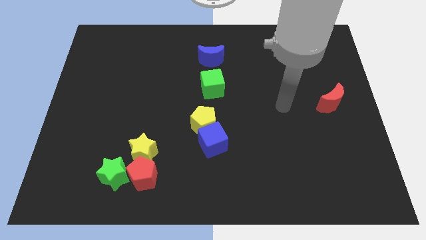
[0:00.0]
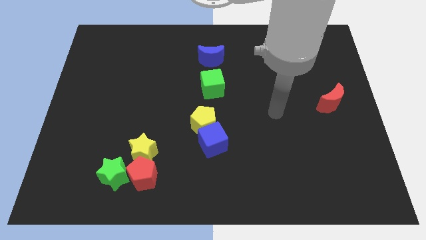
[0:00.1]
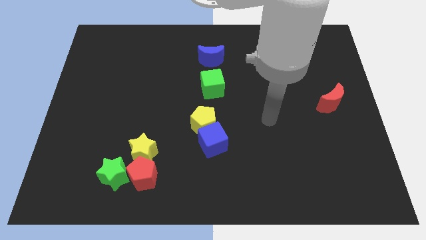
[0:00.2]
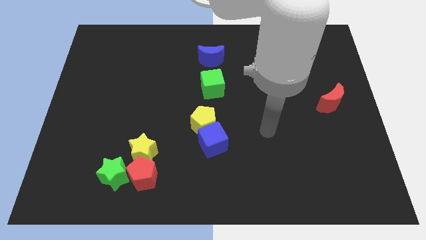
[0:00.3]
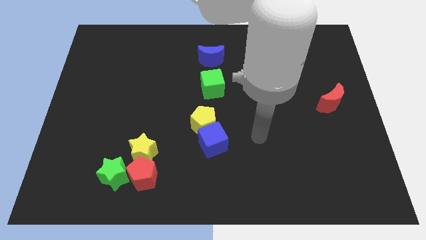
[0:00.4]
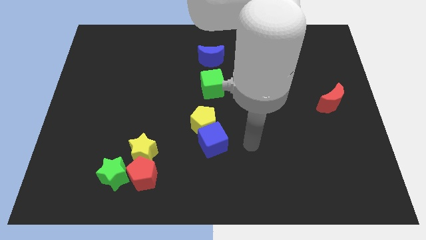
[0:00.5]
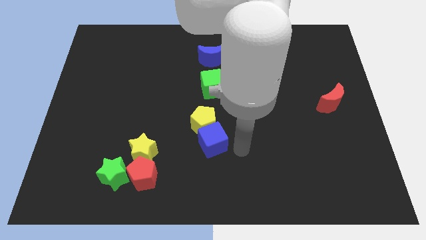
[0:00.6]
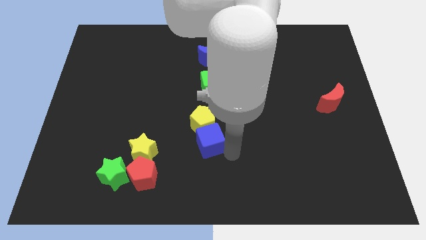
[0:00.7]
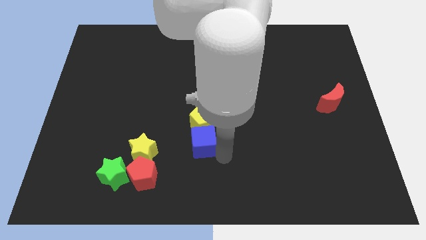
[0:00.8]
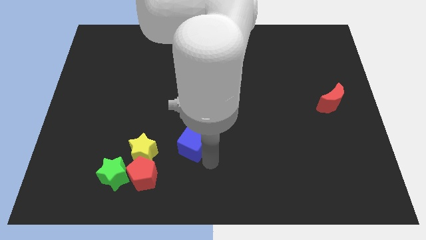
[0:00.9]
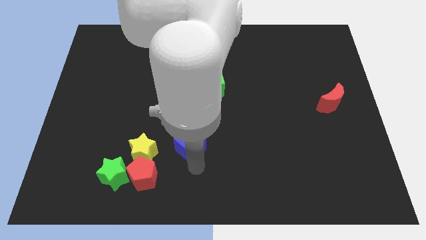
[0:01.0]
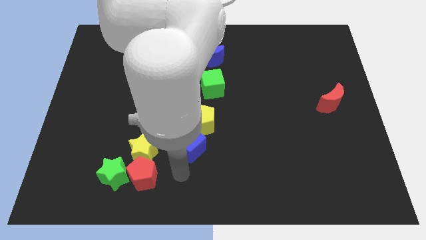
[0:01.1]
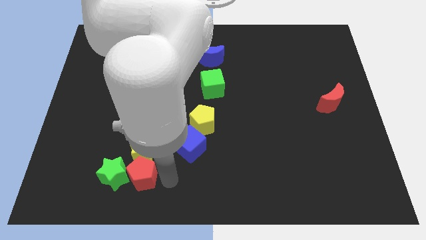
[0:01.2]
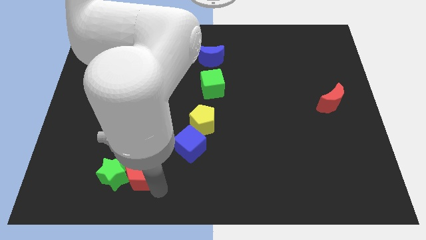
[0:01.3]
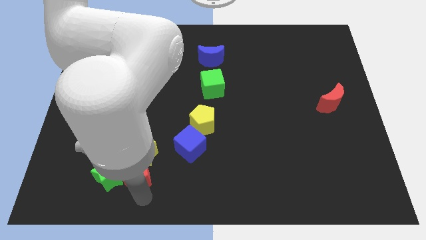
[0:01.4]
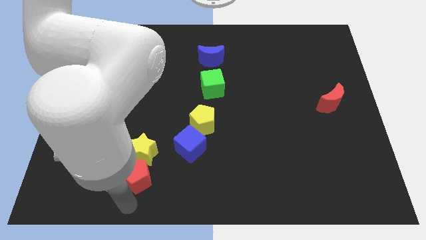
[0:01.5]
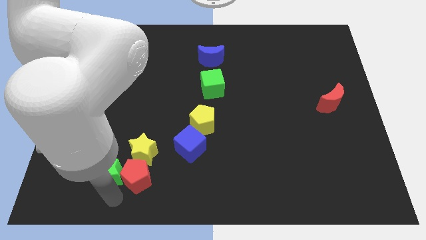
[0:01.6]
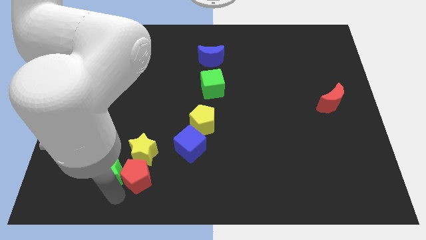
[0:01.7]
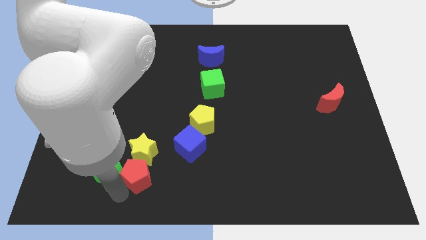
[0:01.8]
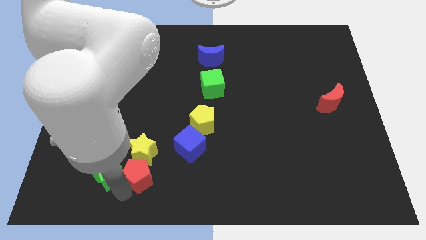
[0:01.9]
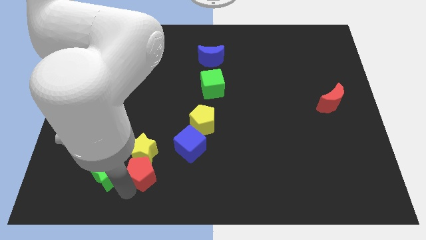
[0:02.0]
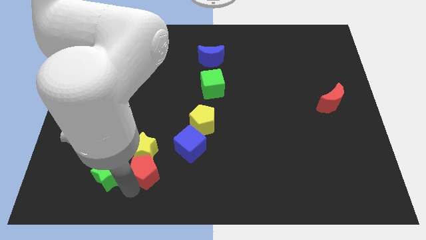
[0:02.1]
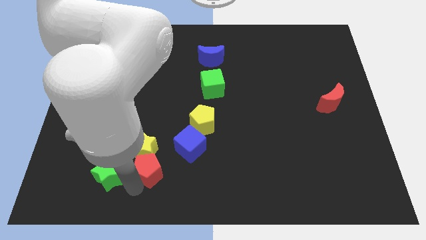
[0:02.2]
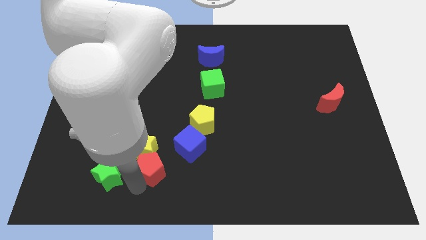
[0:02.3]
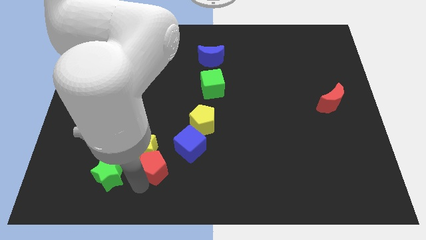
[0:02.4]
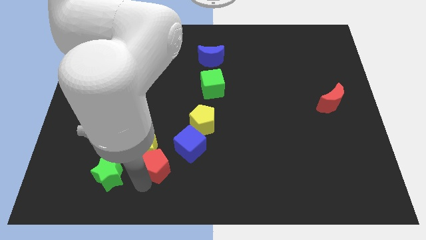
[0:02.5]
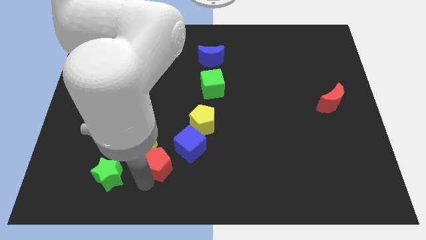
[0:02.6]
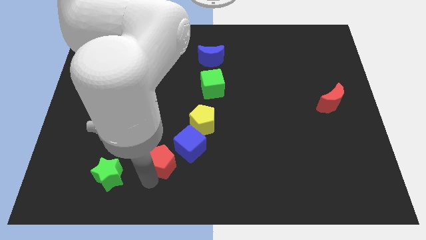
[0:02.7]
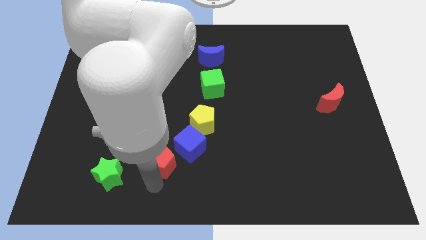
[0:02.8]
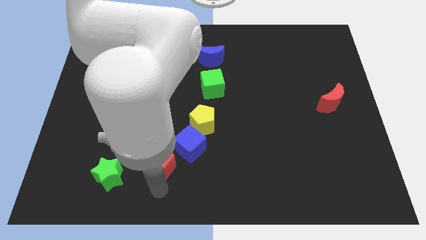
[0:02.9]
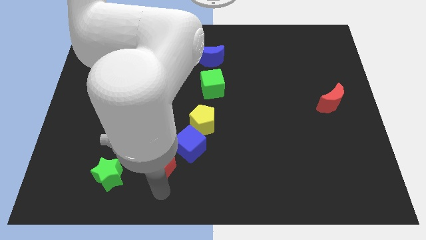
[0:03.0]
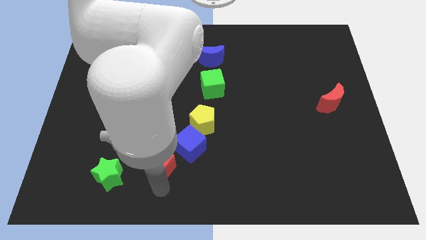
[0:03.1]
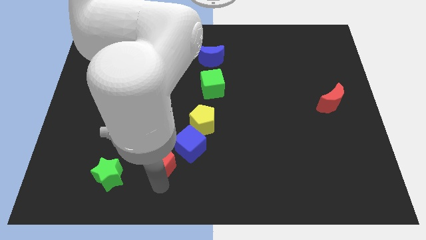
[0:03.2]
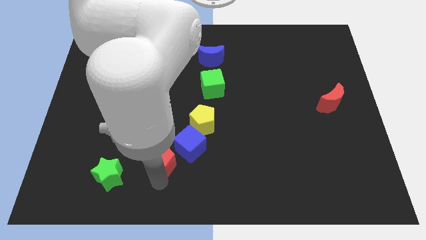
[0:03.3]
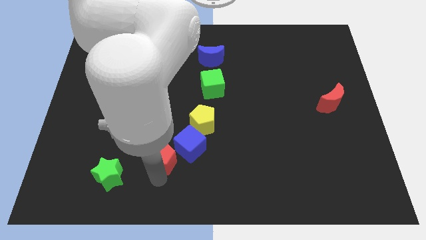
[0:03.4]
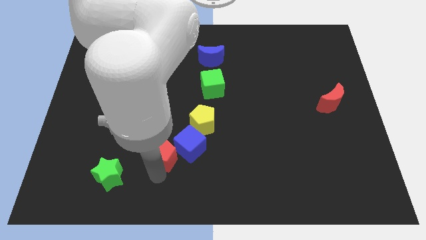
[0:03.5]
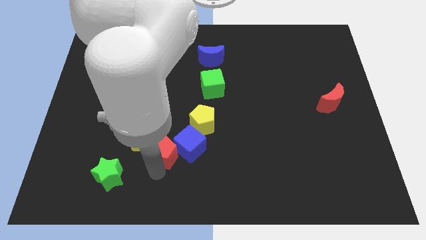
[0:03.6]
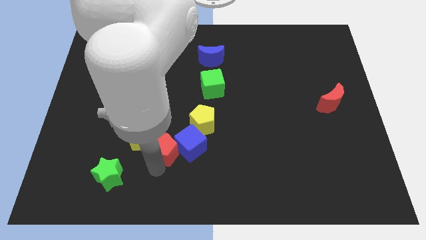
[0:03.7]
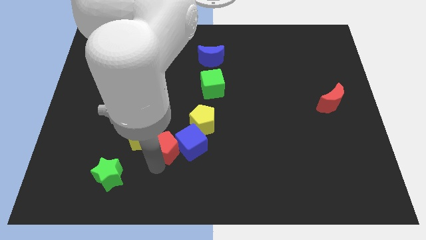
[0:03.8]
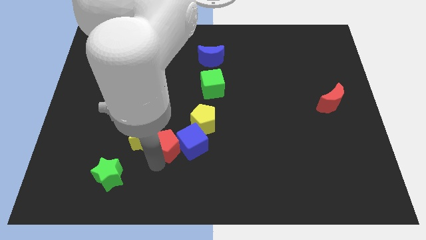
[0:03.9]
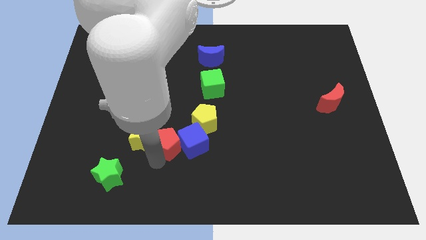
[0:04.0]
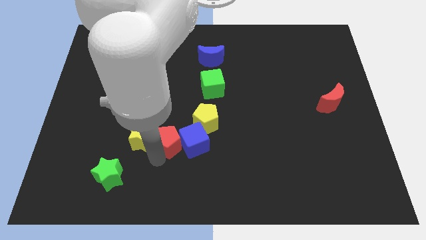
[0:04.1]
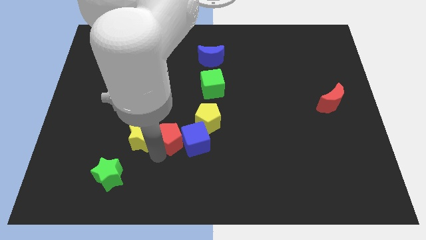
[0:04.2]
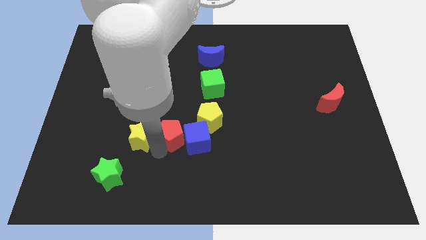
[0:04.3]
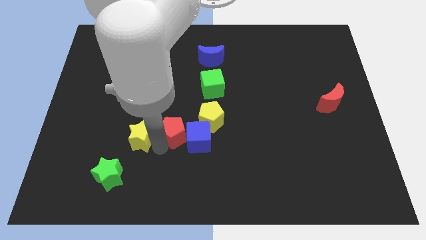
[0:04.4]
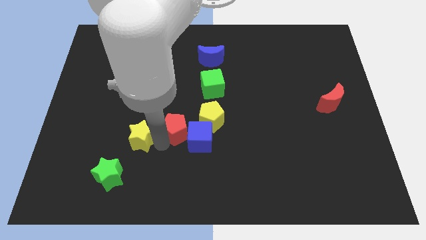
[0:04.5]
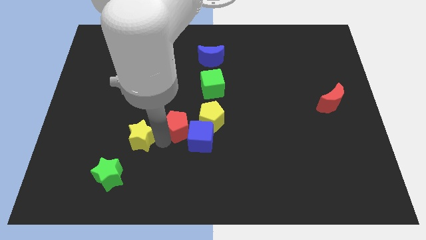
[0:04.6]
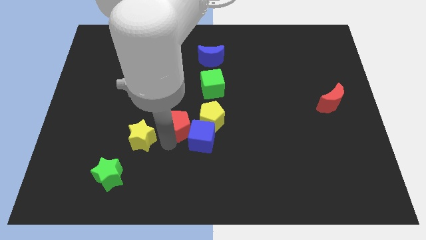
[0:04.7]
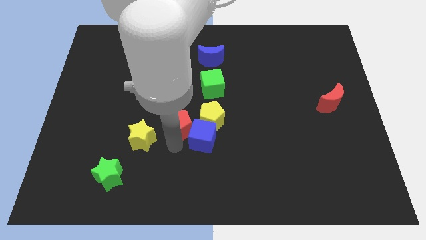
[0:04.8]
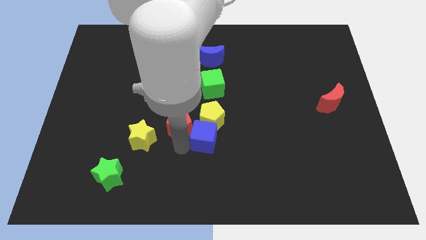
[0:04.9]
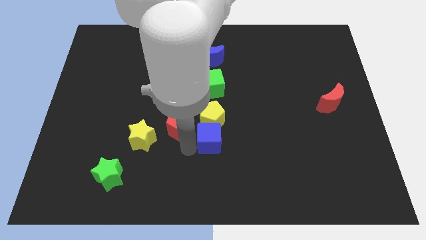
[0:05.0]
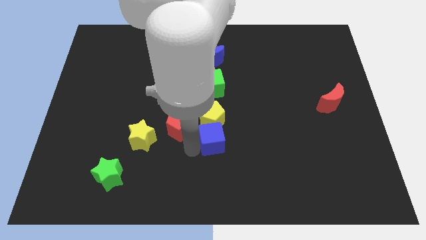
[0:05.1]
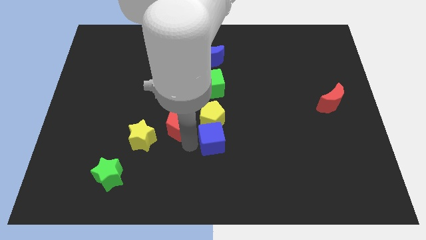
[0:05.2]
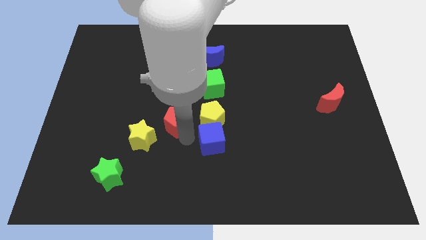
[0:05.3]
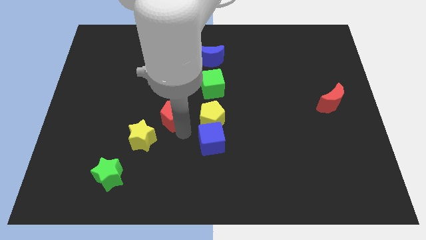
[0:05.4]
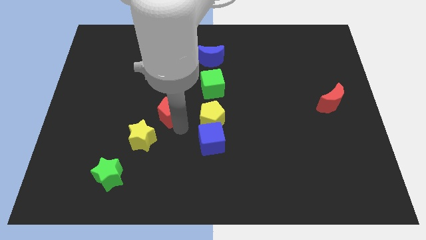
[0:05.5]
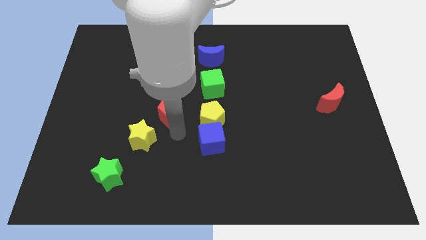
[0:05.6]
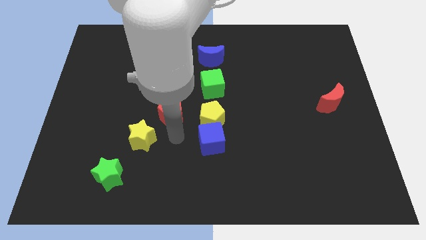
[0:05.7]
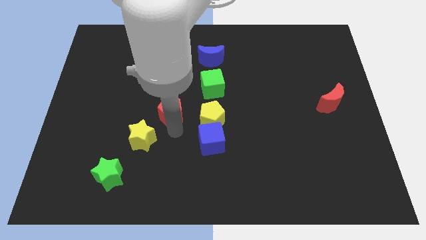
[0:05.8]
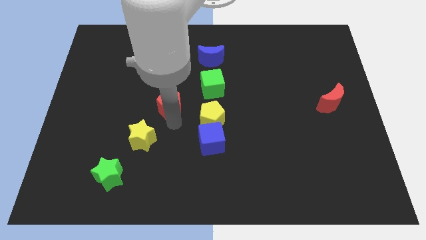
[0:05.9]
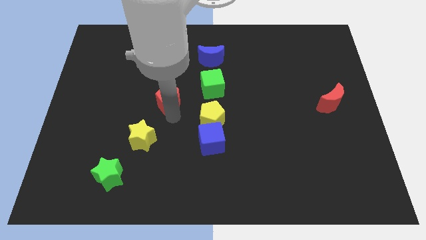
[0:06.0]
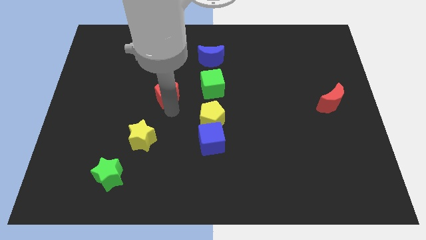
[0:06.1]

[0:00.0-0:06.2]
move the red pentagon up

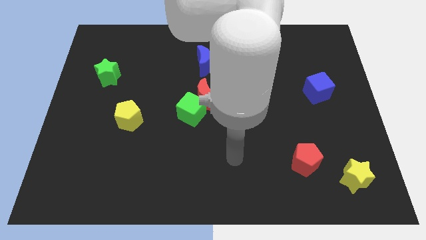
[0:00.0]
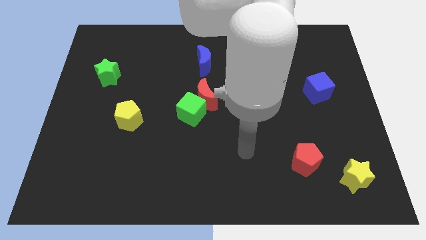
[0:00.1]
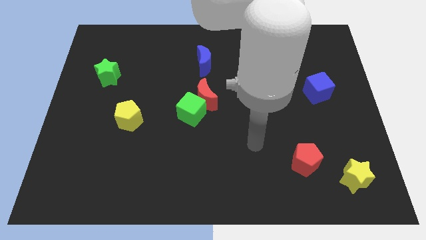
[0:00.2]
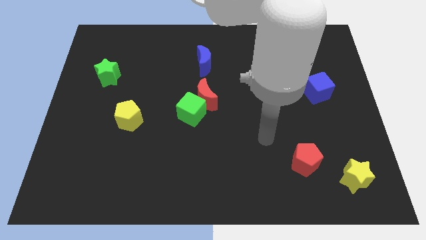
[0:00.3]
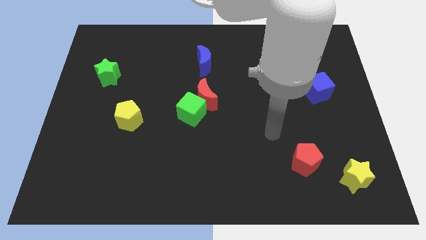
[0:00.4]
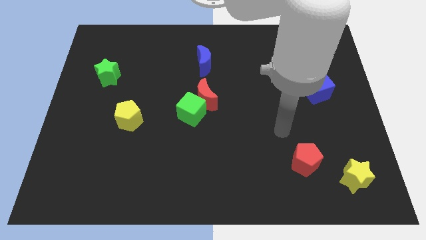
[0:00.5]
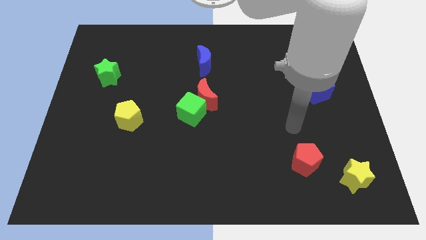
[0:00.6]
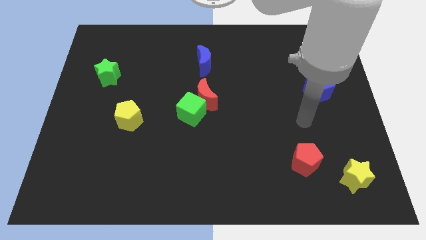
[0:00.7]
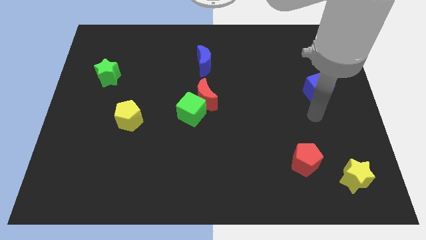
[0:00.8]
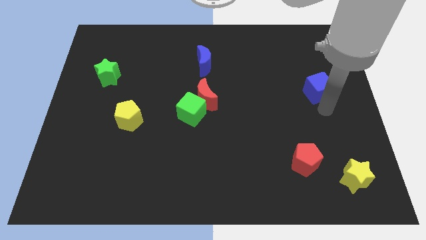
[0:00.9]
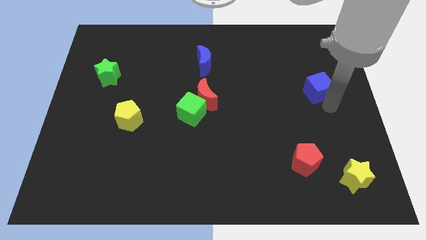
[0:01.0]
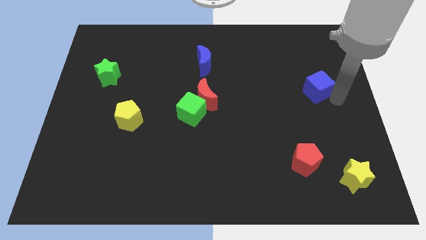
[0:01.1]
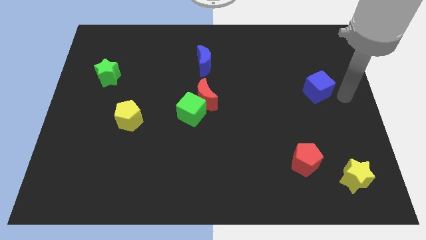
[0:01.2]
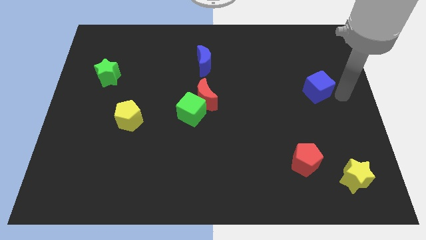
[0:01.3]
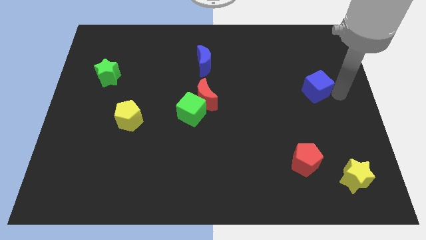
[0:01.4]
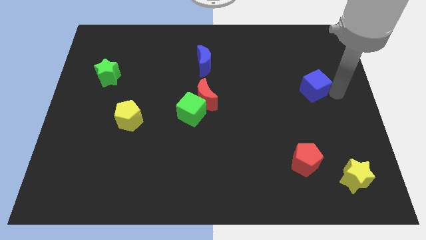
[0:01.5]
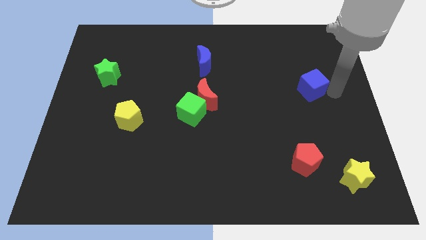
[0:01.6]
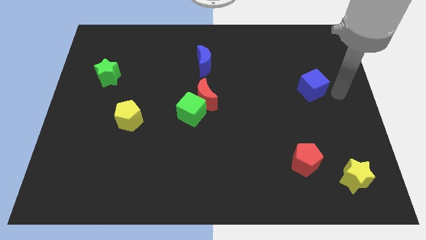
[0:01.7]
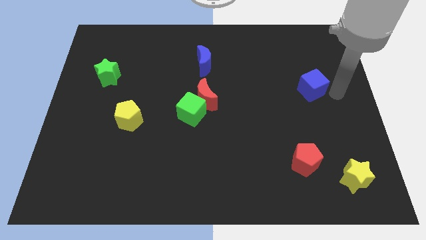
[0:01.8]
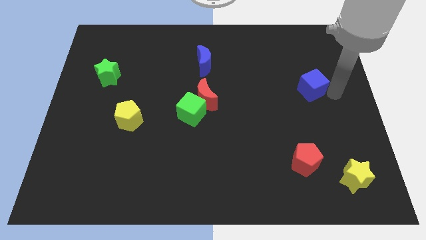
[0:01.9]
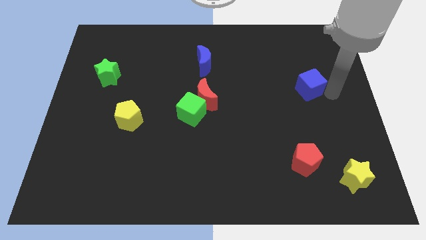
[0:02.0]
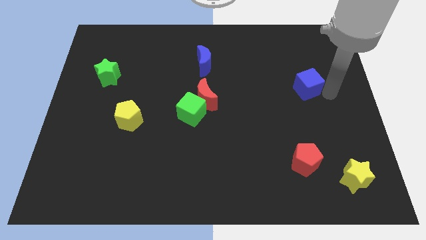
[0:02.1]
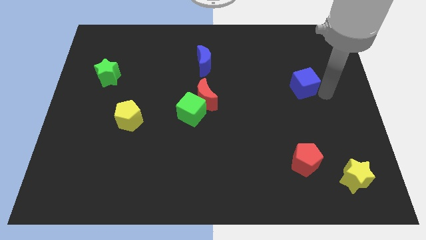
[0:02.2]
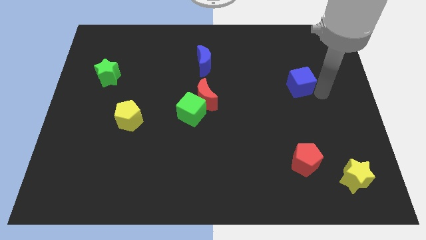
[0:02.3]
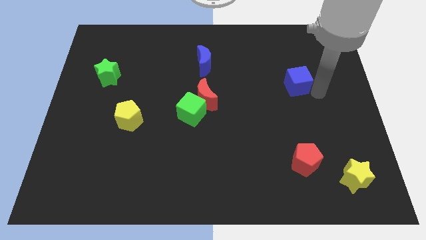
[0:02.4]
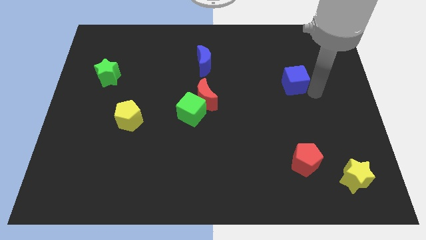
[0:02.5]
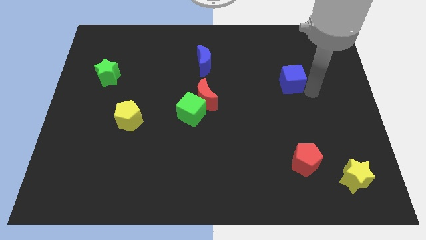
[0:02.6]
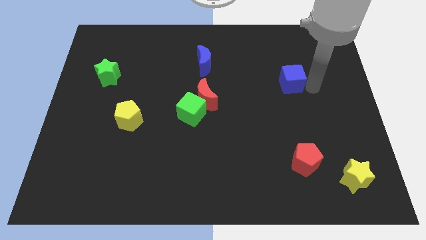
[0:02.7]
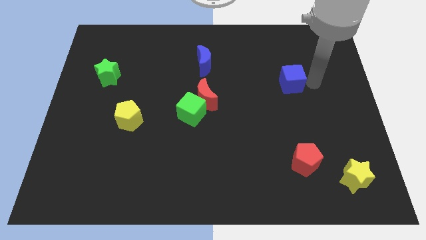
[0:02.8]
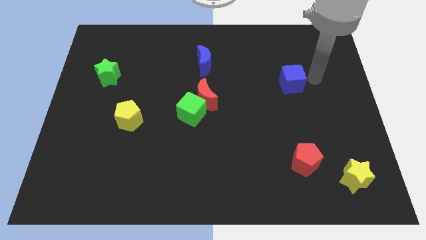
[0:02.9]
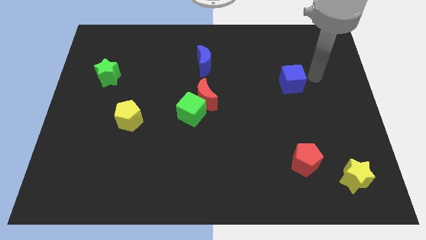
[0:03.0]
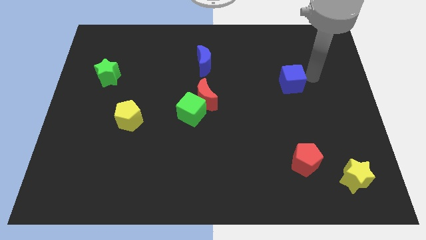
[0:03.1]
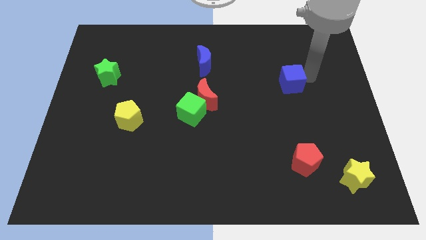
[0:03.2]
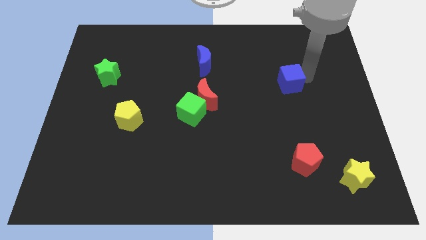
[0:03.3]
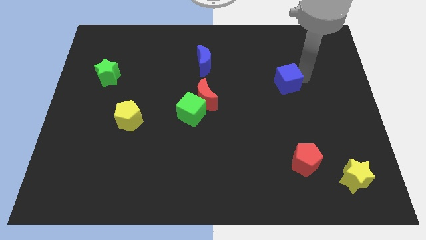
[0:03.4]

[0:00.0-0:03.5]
slide the blue cube a bit left
